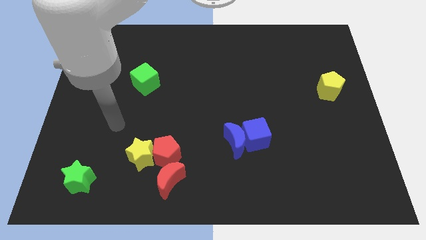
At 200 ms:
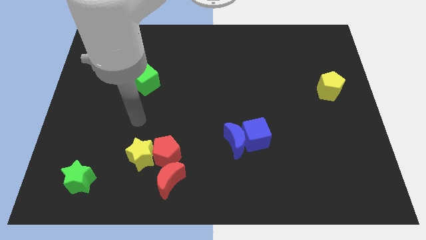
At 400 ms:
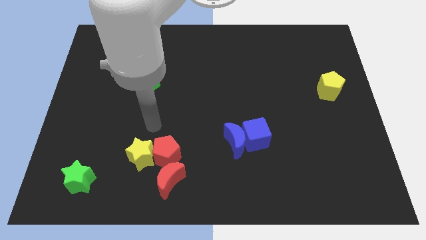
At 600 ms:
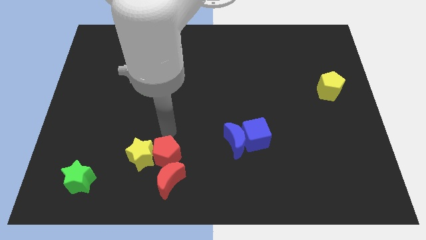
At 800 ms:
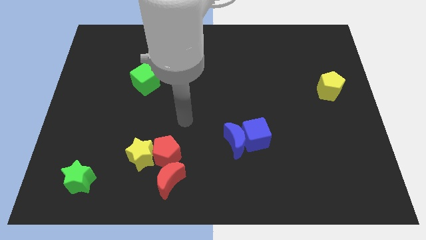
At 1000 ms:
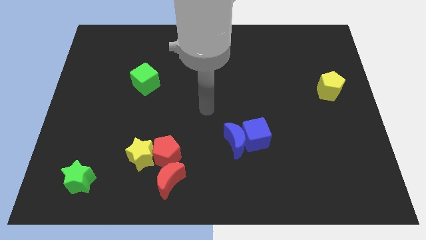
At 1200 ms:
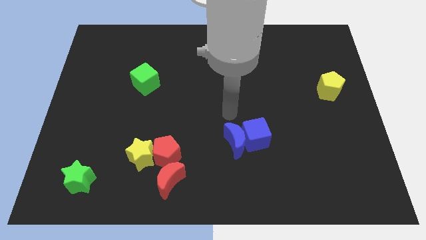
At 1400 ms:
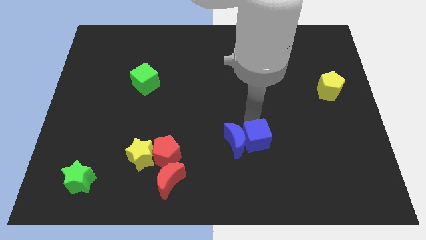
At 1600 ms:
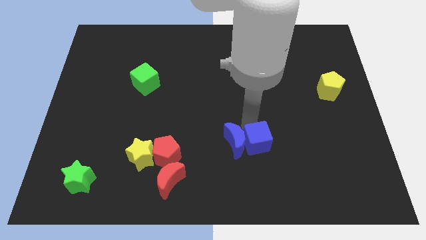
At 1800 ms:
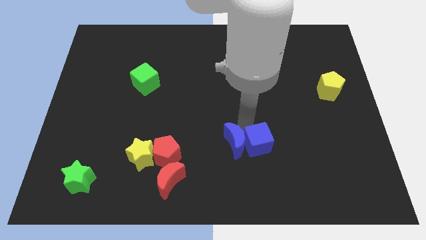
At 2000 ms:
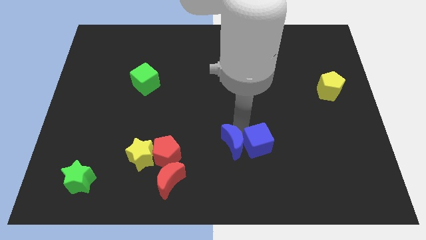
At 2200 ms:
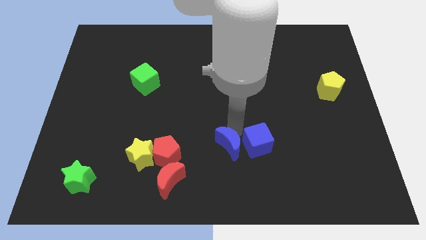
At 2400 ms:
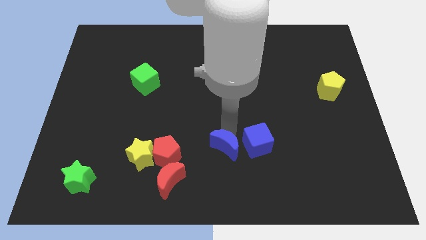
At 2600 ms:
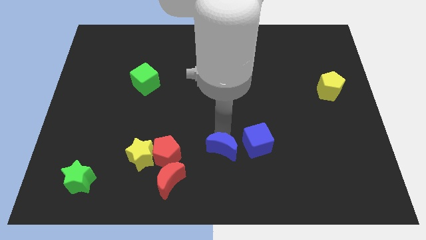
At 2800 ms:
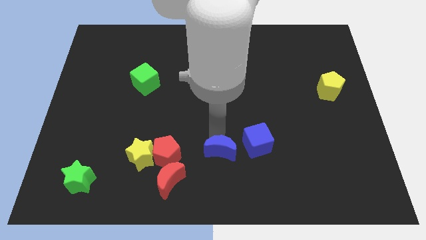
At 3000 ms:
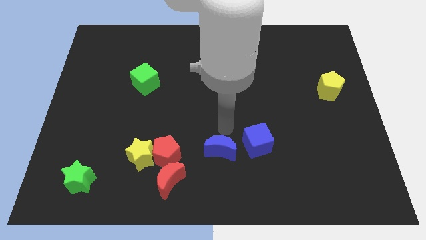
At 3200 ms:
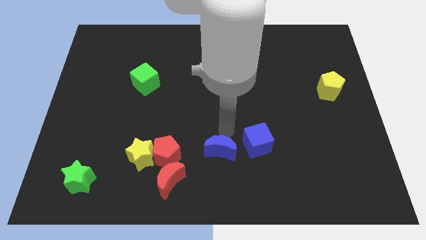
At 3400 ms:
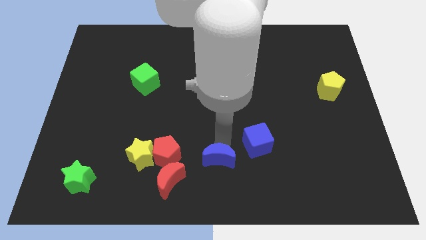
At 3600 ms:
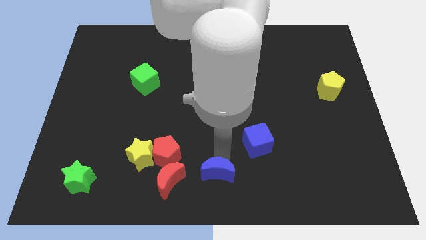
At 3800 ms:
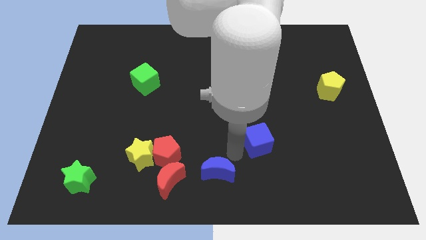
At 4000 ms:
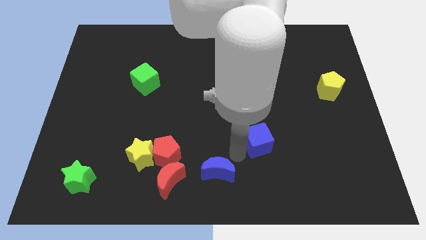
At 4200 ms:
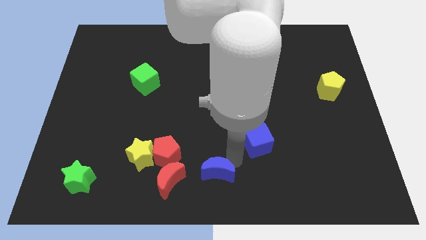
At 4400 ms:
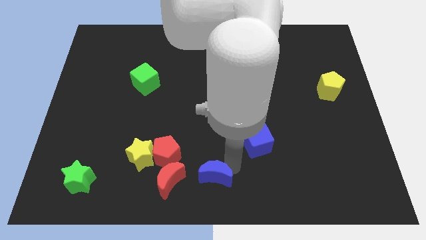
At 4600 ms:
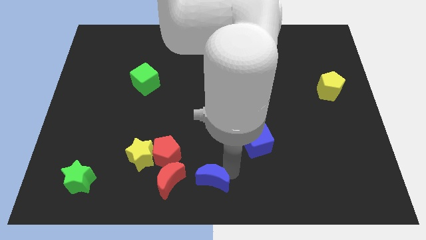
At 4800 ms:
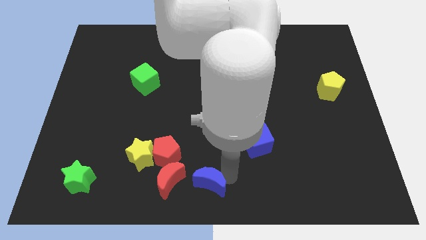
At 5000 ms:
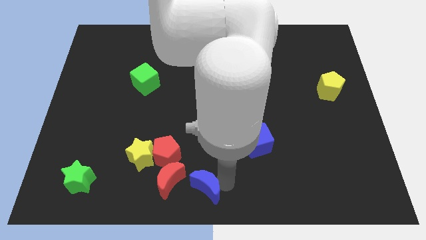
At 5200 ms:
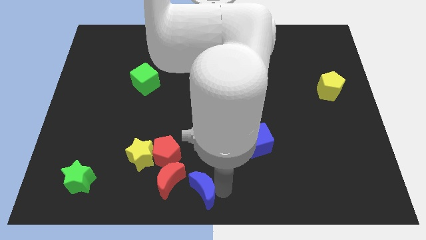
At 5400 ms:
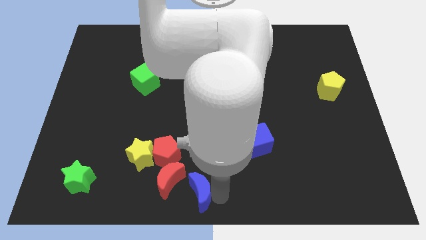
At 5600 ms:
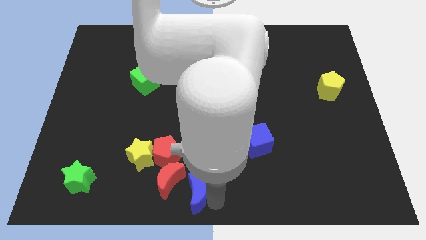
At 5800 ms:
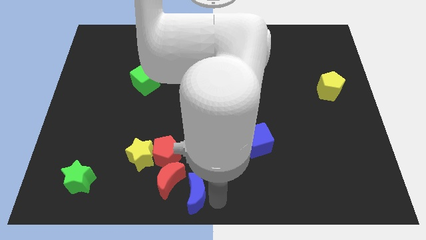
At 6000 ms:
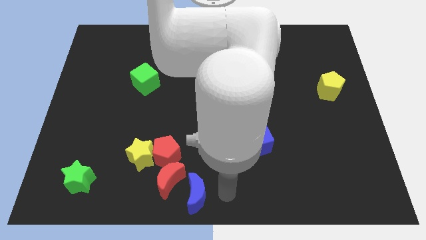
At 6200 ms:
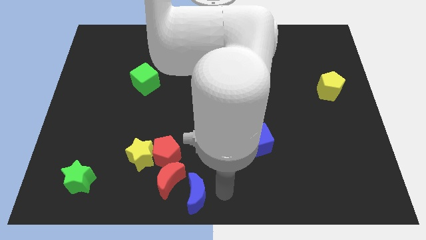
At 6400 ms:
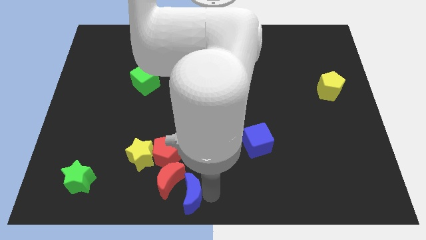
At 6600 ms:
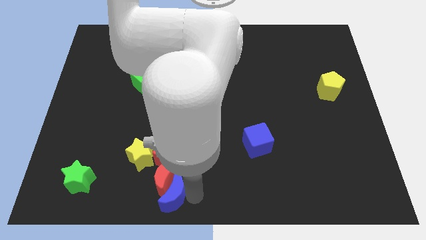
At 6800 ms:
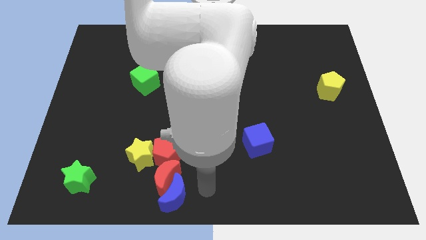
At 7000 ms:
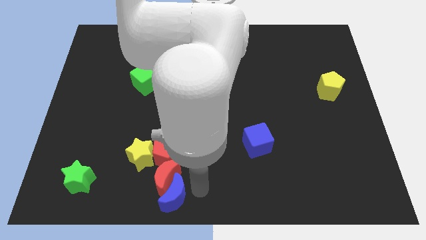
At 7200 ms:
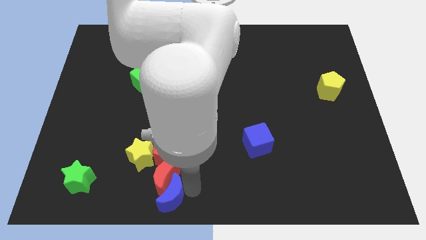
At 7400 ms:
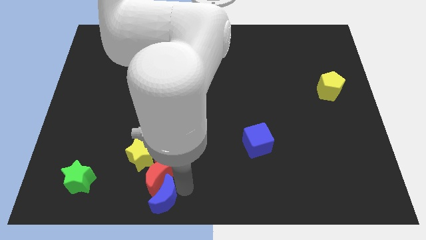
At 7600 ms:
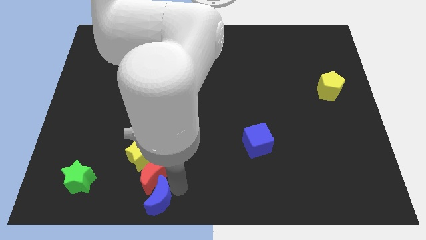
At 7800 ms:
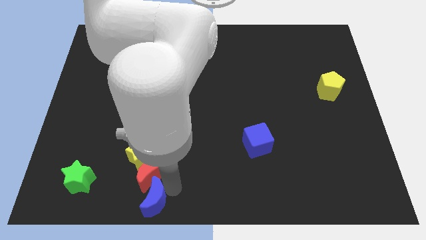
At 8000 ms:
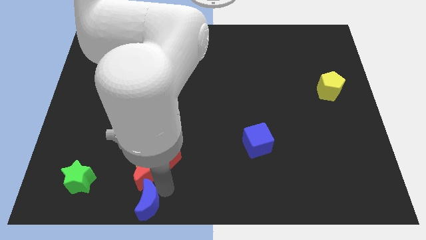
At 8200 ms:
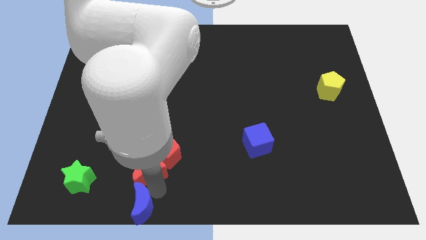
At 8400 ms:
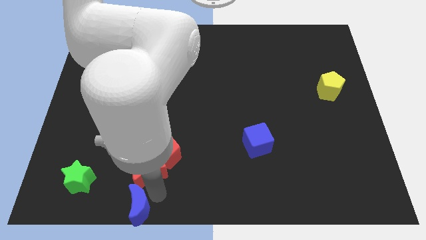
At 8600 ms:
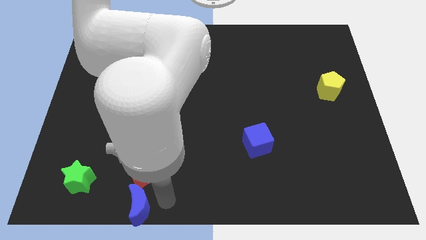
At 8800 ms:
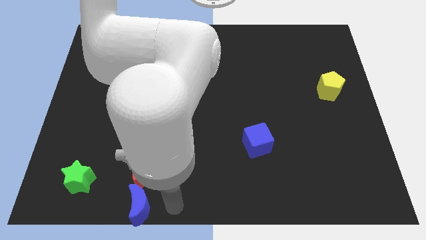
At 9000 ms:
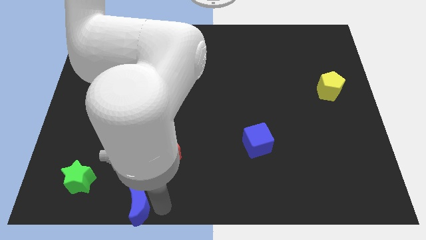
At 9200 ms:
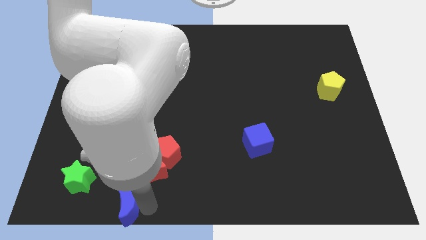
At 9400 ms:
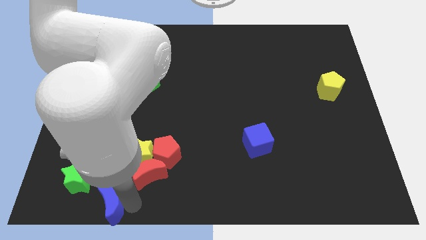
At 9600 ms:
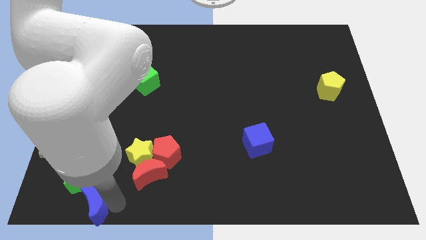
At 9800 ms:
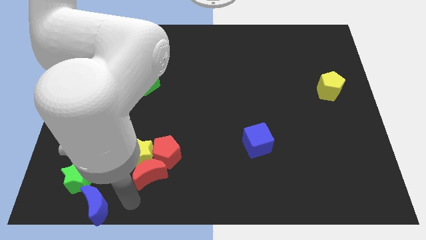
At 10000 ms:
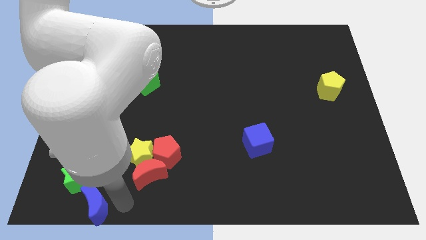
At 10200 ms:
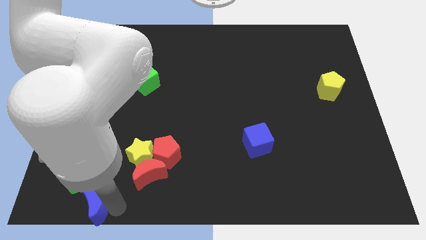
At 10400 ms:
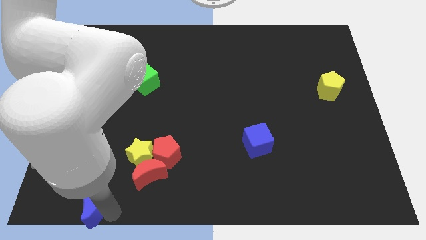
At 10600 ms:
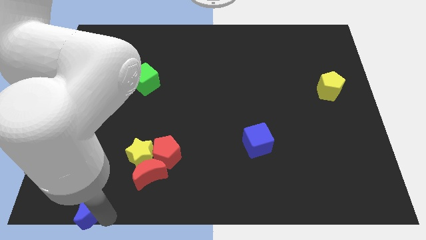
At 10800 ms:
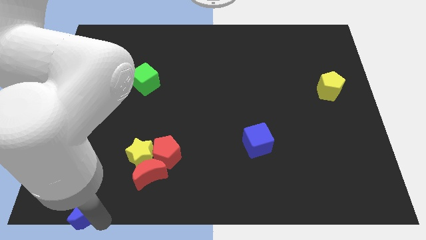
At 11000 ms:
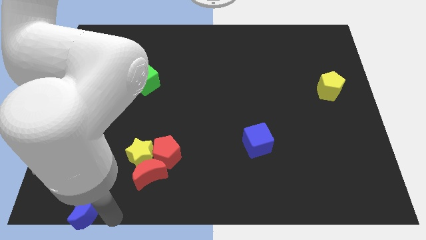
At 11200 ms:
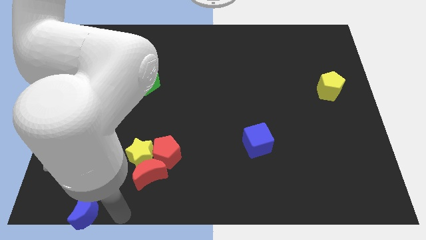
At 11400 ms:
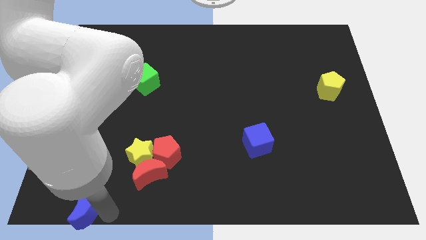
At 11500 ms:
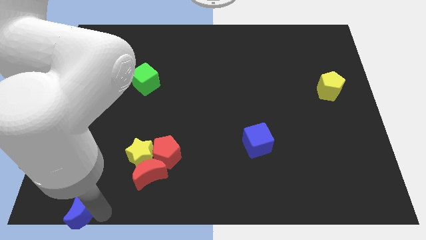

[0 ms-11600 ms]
push the blue moon to the bottom left

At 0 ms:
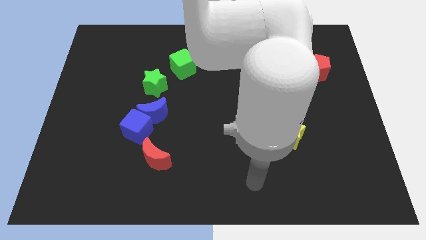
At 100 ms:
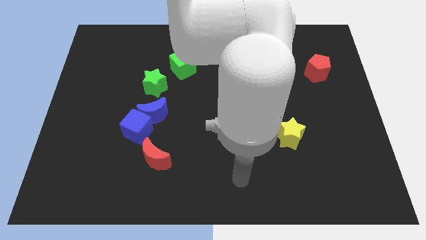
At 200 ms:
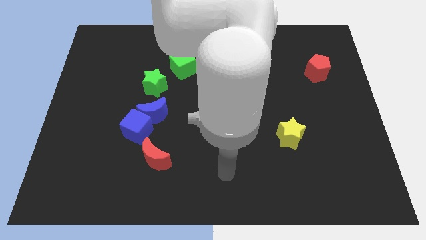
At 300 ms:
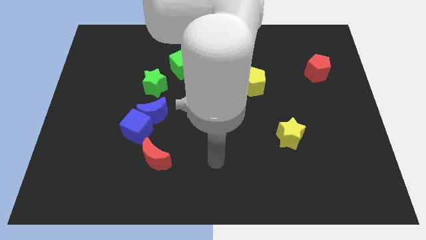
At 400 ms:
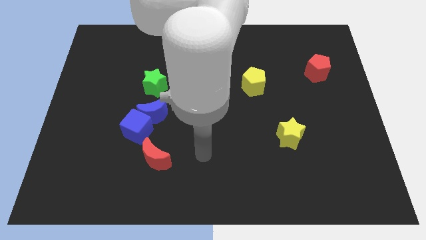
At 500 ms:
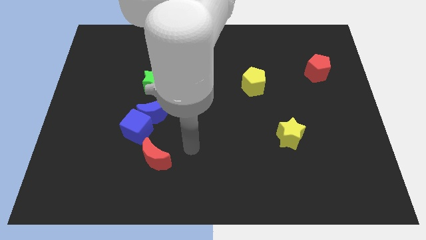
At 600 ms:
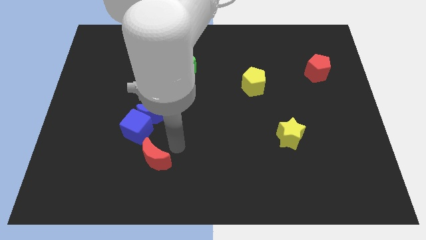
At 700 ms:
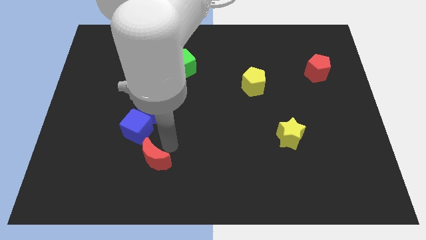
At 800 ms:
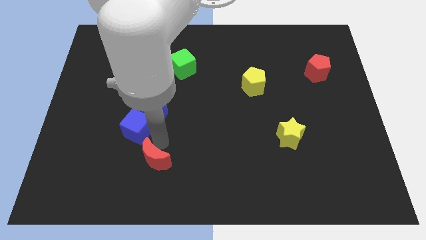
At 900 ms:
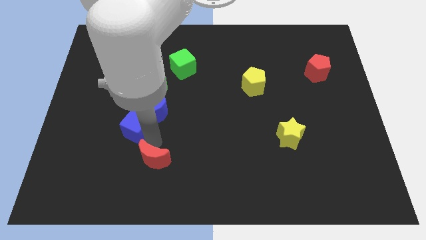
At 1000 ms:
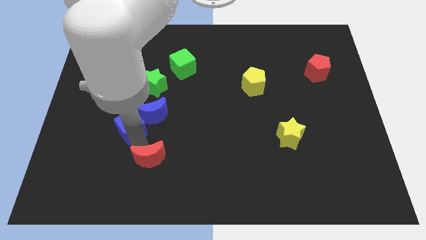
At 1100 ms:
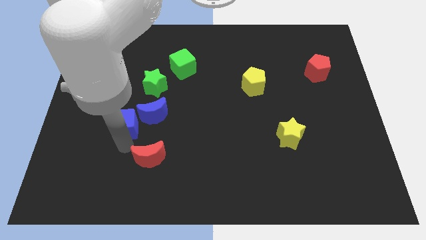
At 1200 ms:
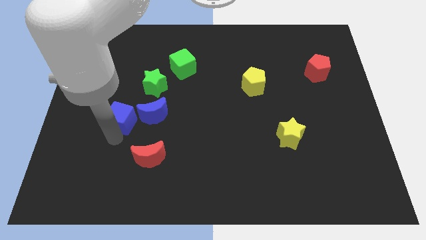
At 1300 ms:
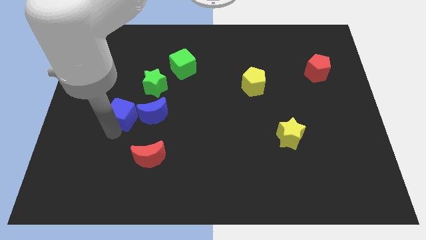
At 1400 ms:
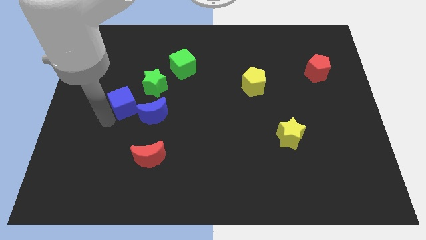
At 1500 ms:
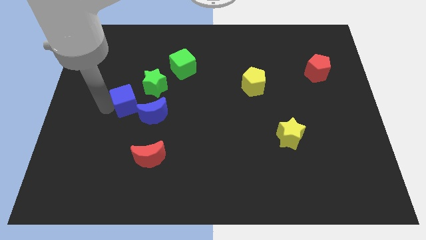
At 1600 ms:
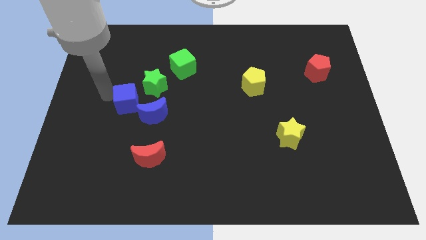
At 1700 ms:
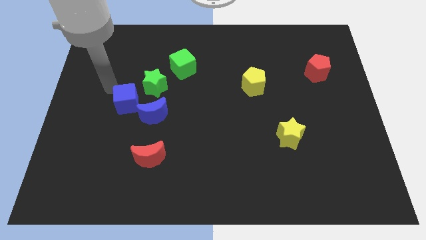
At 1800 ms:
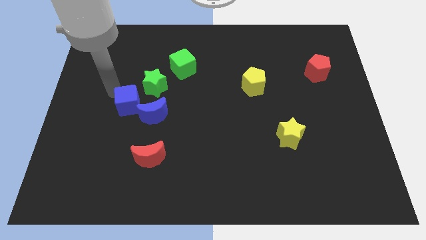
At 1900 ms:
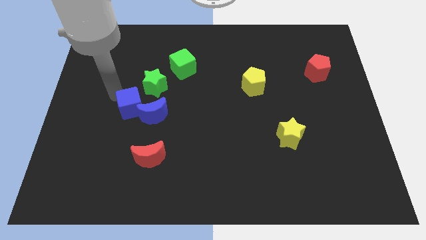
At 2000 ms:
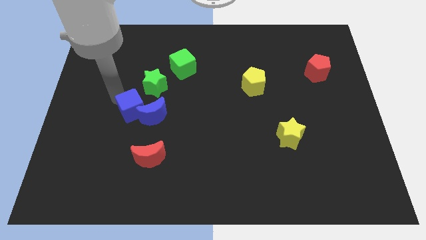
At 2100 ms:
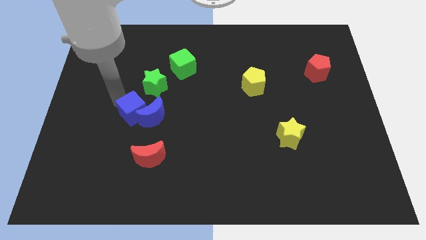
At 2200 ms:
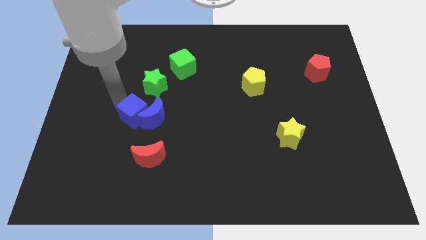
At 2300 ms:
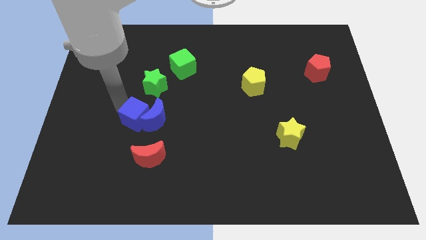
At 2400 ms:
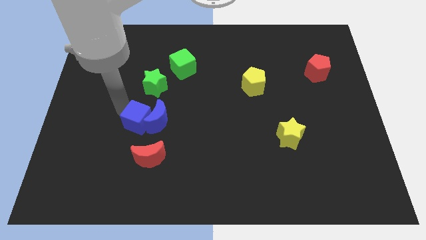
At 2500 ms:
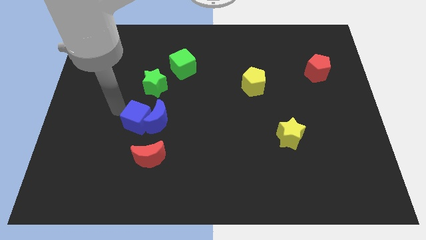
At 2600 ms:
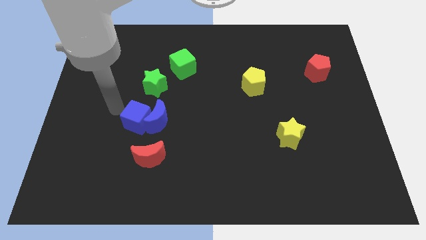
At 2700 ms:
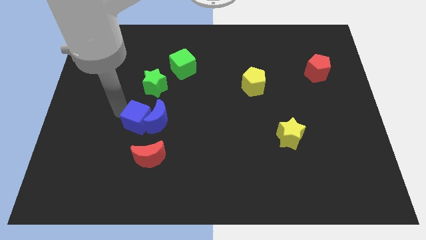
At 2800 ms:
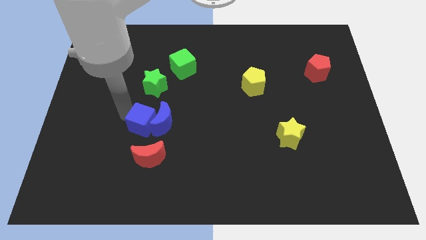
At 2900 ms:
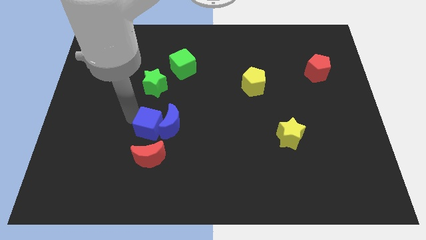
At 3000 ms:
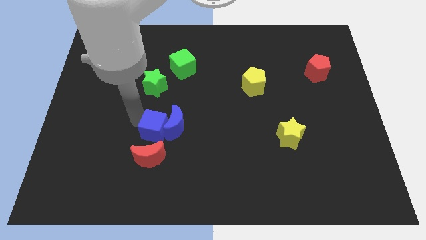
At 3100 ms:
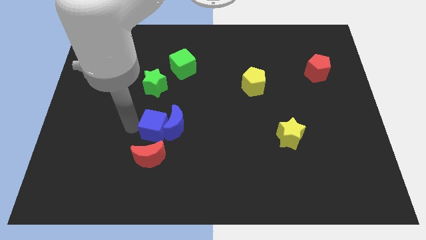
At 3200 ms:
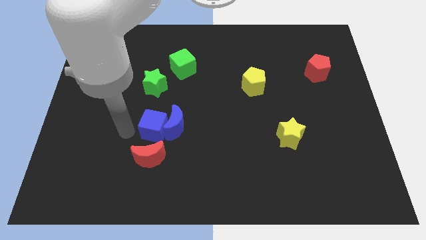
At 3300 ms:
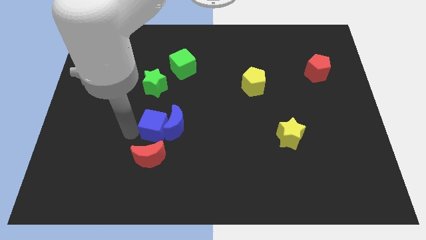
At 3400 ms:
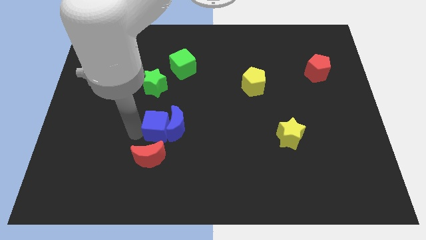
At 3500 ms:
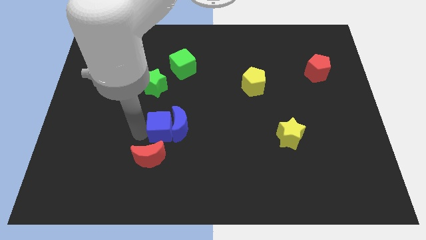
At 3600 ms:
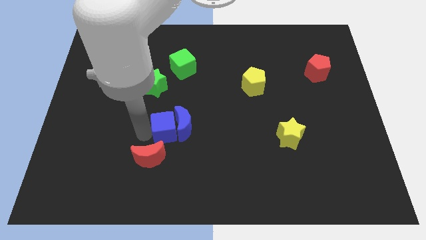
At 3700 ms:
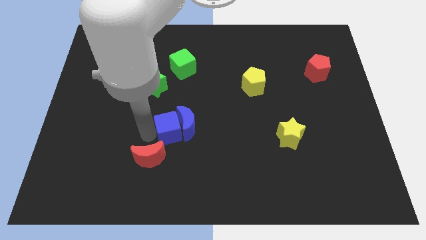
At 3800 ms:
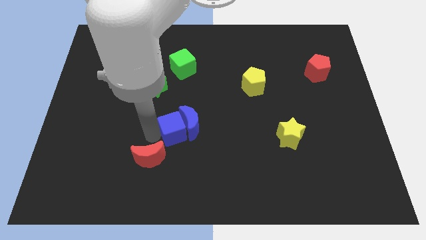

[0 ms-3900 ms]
move the blue cube to the middle
